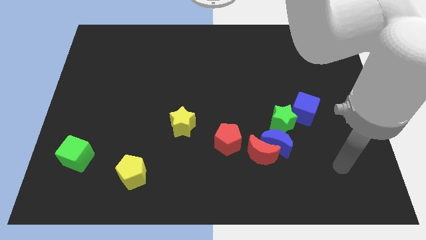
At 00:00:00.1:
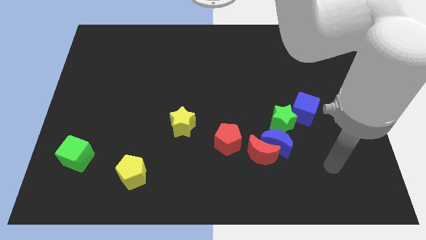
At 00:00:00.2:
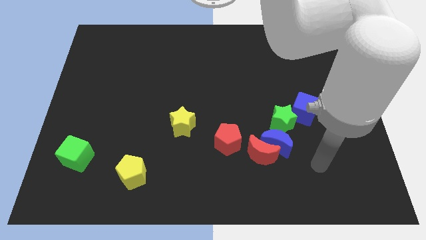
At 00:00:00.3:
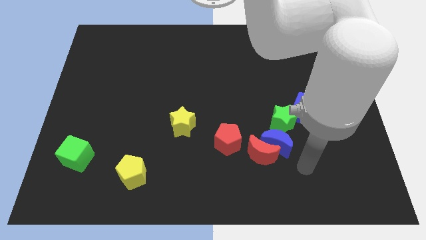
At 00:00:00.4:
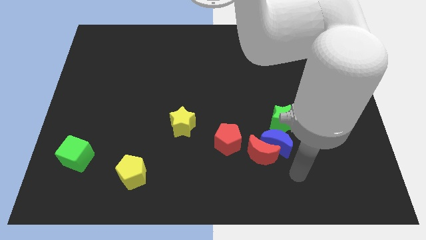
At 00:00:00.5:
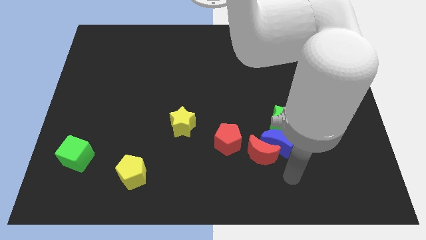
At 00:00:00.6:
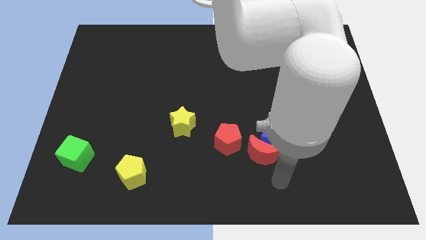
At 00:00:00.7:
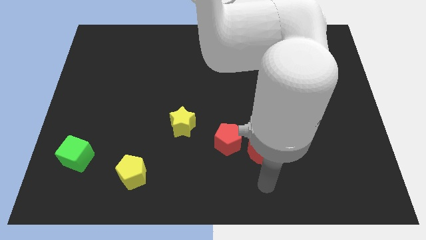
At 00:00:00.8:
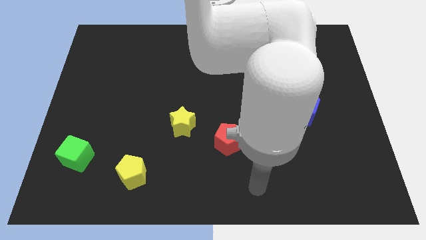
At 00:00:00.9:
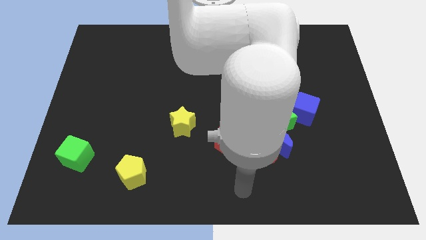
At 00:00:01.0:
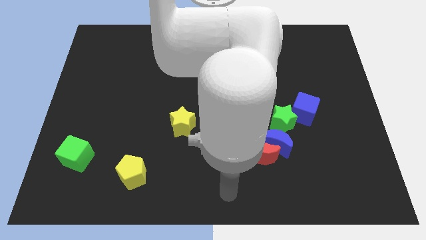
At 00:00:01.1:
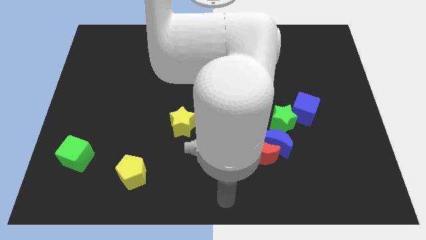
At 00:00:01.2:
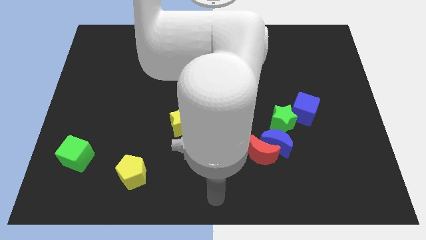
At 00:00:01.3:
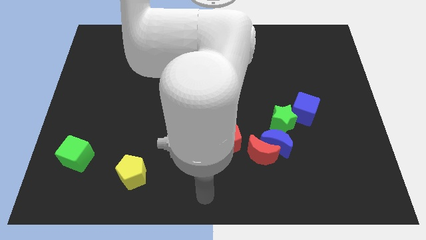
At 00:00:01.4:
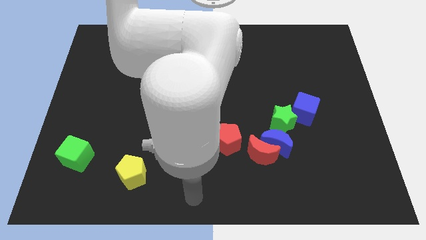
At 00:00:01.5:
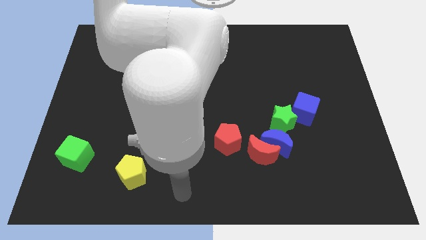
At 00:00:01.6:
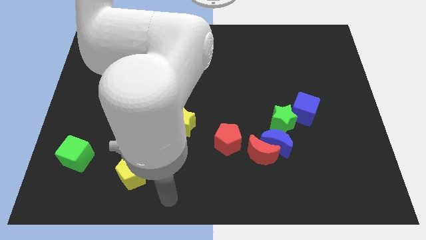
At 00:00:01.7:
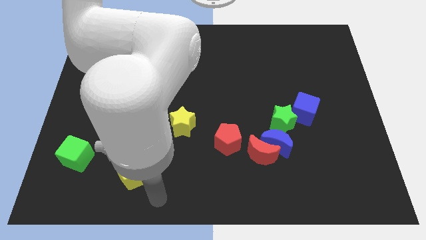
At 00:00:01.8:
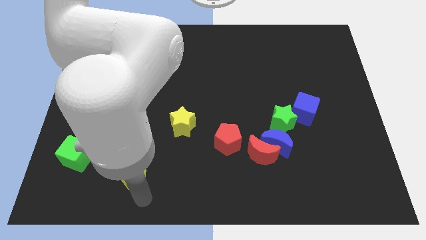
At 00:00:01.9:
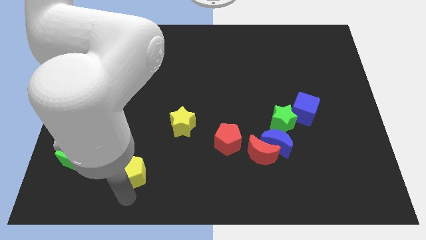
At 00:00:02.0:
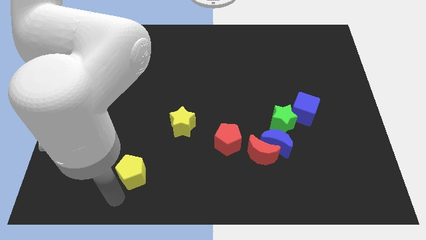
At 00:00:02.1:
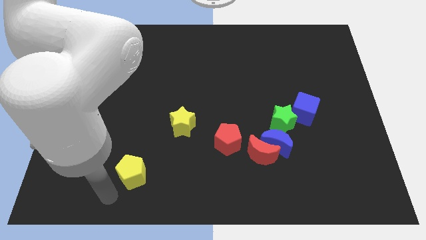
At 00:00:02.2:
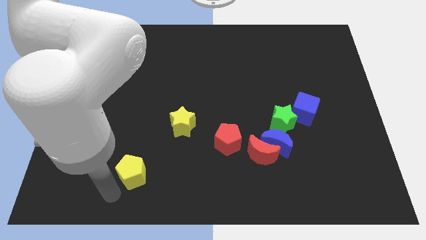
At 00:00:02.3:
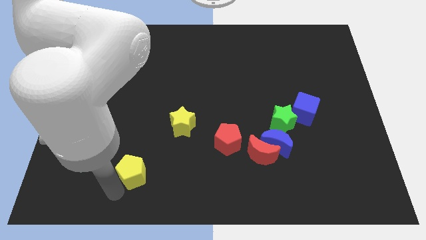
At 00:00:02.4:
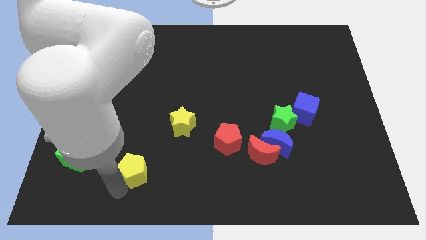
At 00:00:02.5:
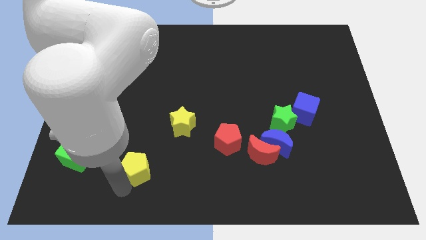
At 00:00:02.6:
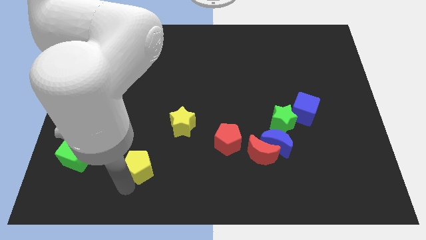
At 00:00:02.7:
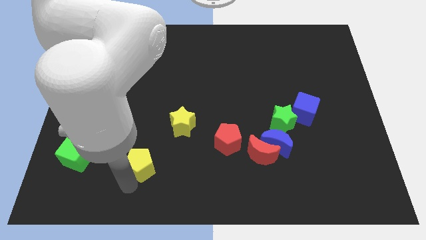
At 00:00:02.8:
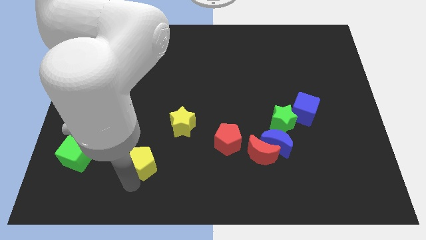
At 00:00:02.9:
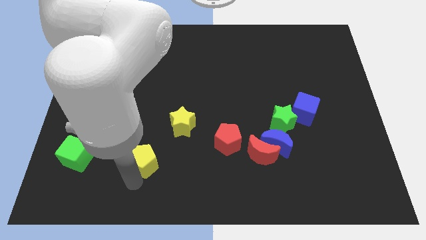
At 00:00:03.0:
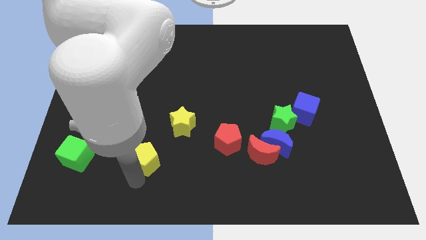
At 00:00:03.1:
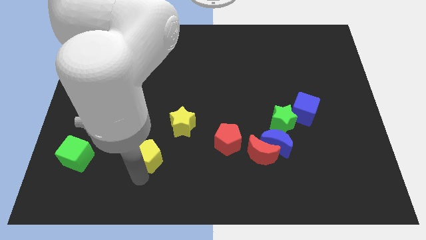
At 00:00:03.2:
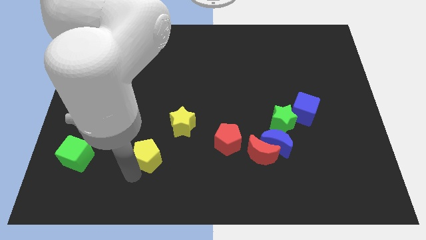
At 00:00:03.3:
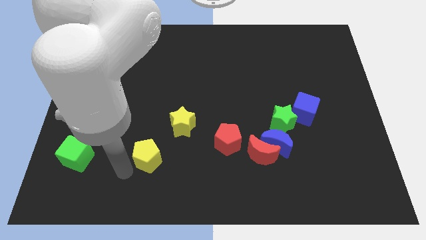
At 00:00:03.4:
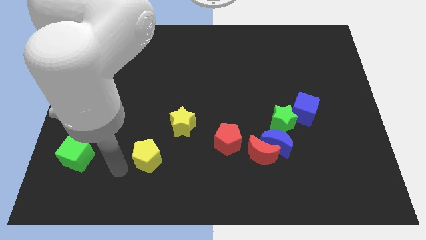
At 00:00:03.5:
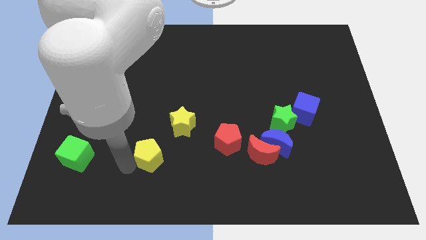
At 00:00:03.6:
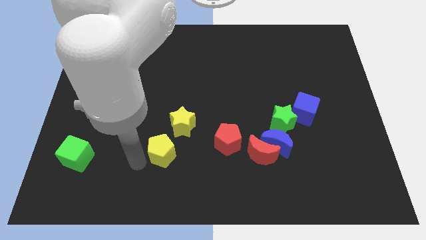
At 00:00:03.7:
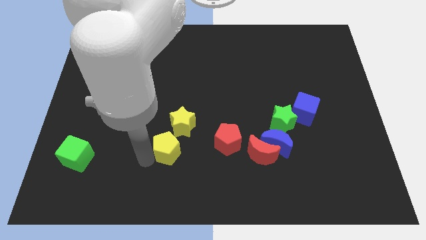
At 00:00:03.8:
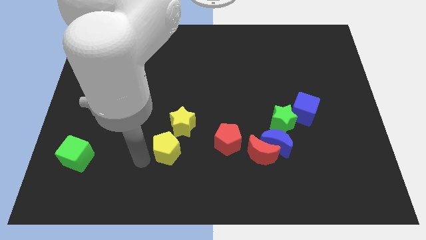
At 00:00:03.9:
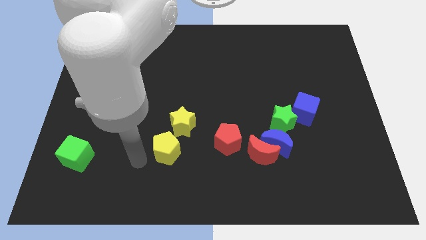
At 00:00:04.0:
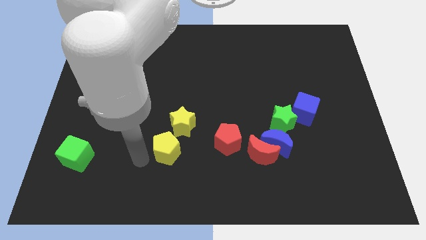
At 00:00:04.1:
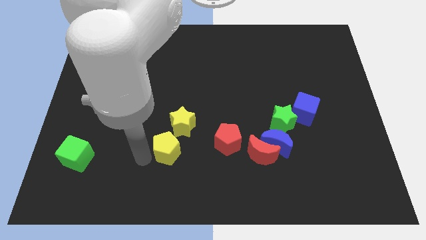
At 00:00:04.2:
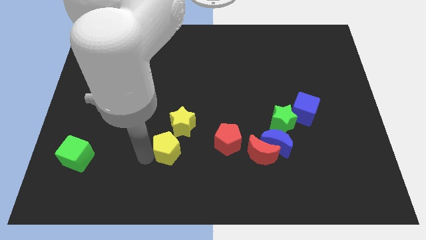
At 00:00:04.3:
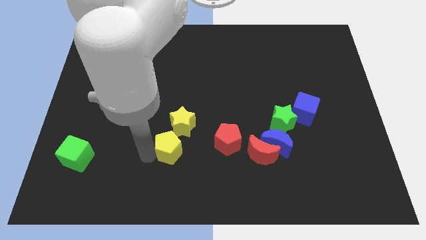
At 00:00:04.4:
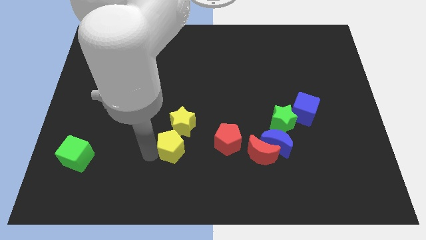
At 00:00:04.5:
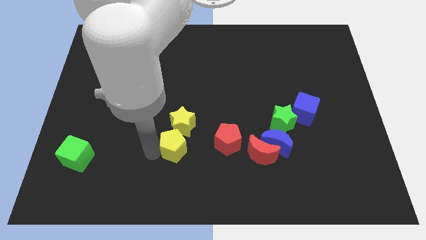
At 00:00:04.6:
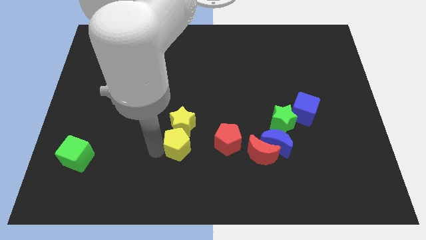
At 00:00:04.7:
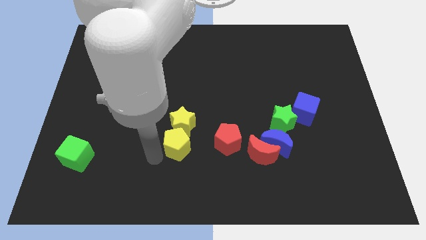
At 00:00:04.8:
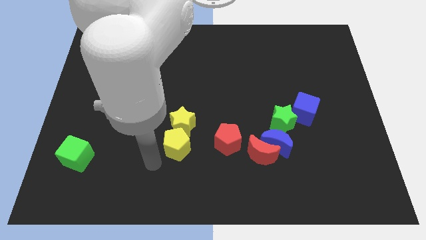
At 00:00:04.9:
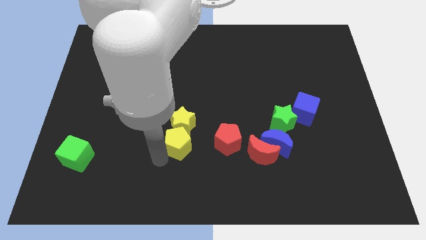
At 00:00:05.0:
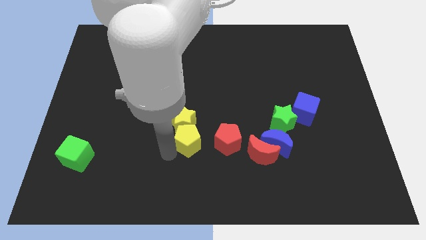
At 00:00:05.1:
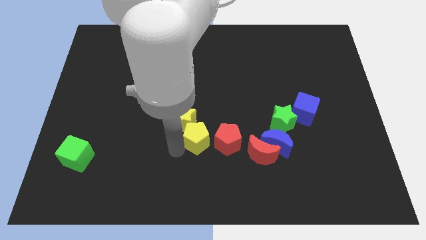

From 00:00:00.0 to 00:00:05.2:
push the yellow pentagon to the middle of the board
